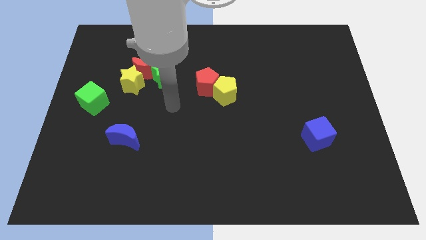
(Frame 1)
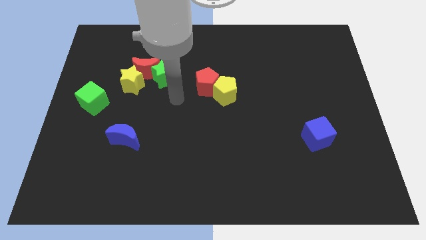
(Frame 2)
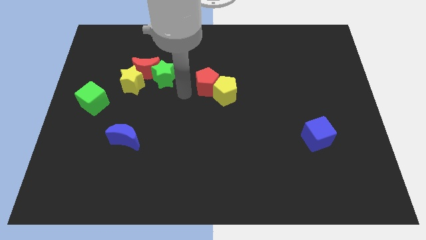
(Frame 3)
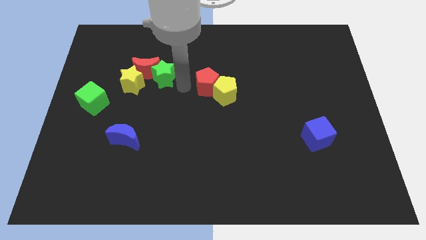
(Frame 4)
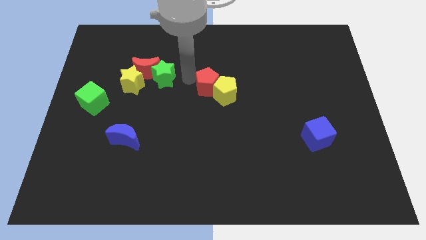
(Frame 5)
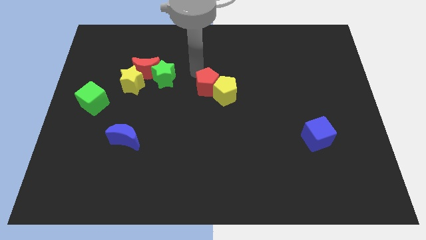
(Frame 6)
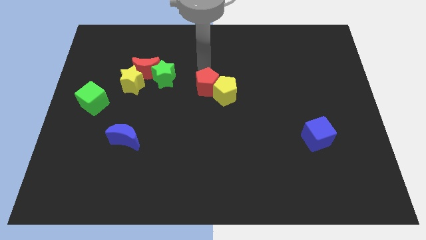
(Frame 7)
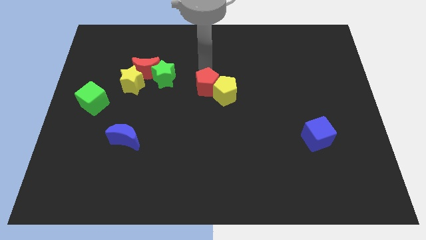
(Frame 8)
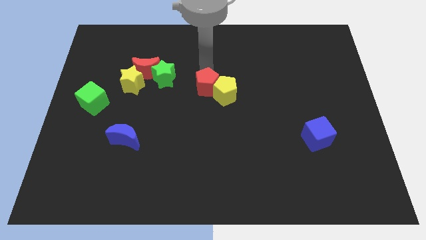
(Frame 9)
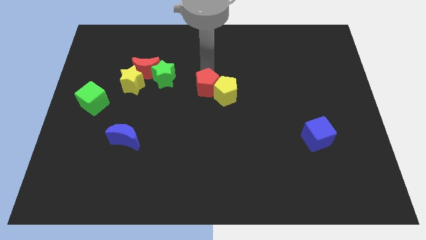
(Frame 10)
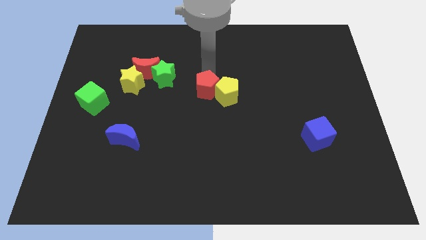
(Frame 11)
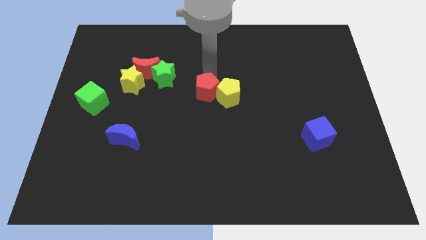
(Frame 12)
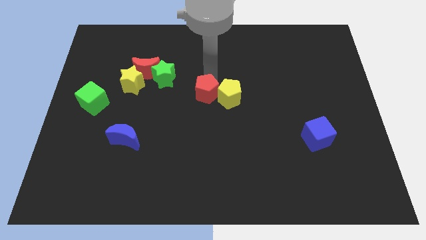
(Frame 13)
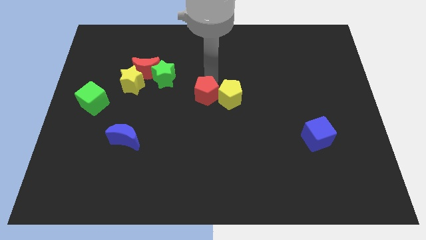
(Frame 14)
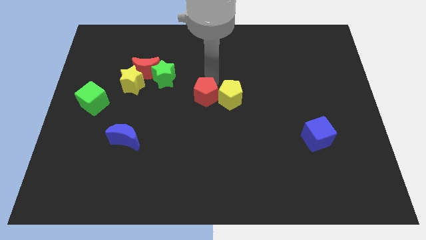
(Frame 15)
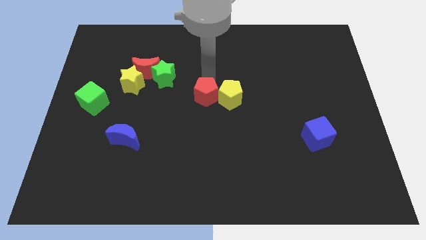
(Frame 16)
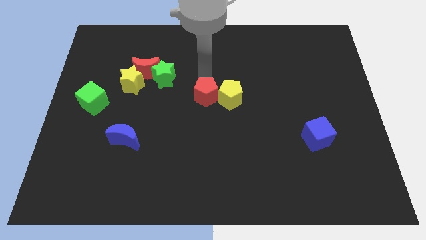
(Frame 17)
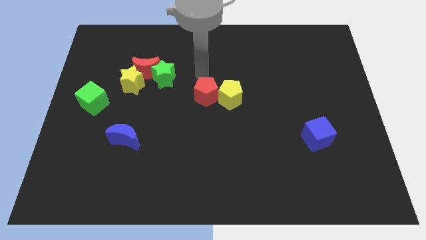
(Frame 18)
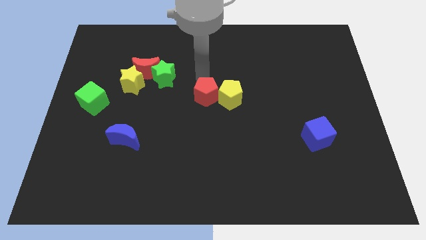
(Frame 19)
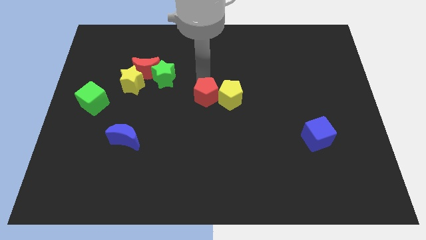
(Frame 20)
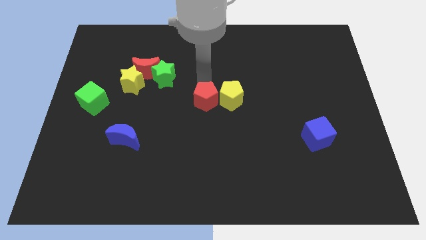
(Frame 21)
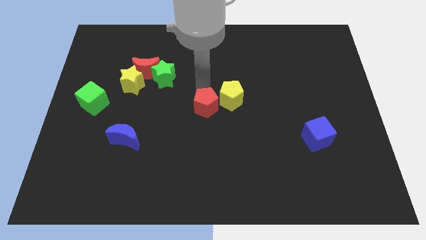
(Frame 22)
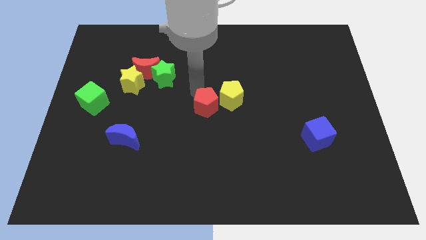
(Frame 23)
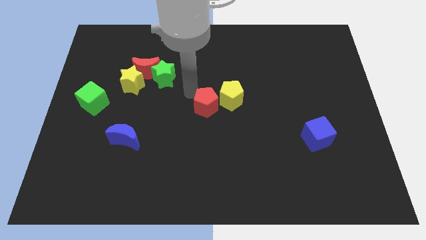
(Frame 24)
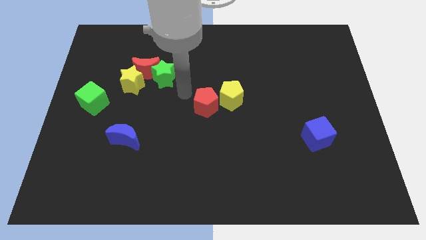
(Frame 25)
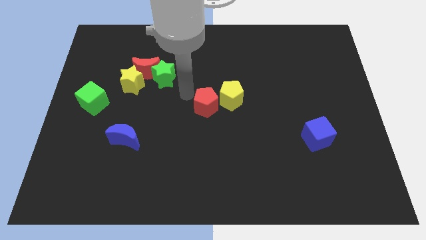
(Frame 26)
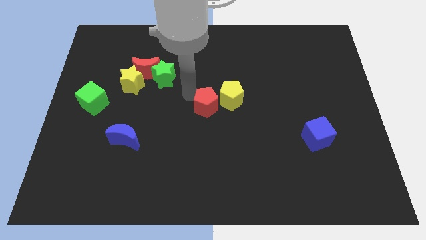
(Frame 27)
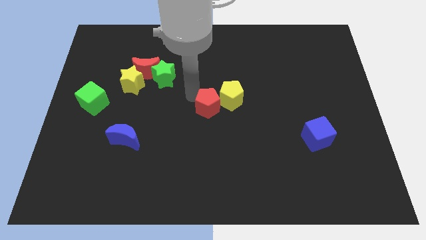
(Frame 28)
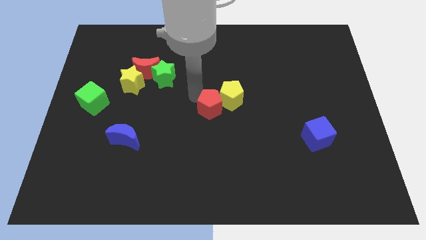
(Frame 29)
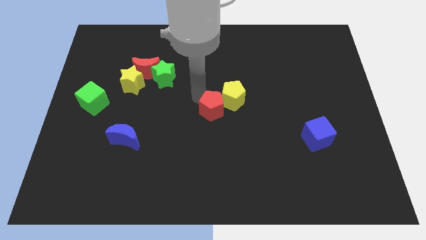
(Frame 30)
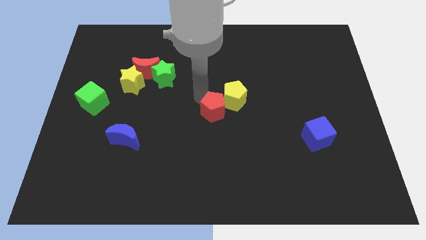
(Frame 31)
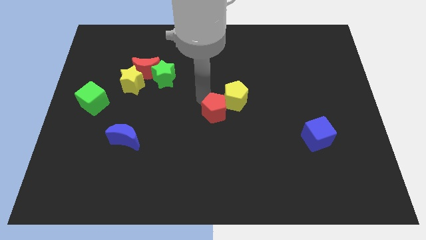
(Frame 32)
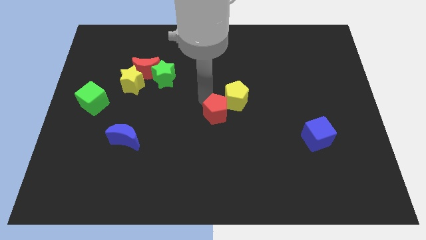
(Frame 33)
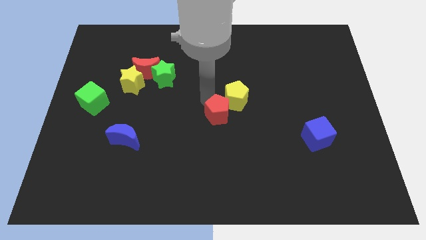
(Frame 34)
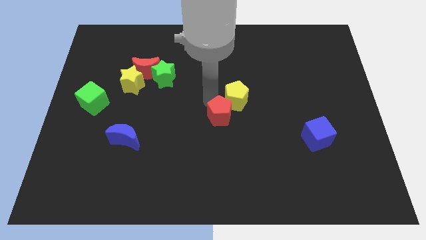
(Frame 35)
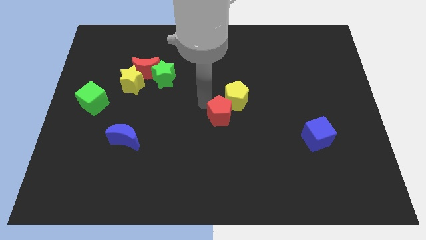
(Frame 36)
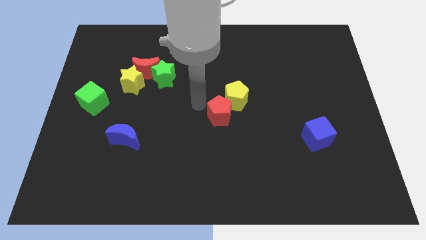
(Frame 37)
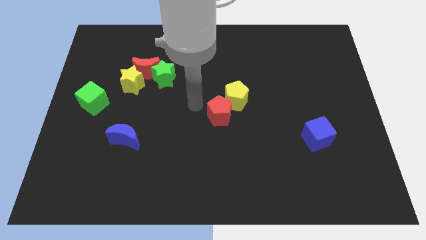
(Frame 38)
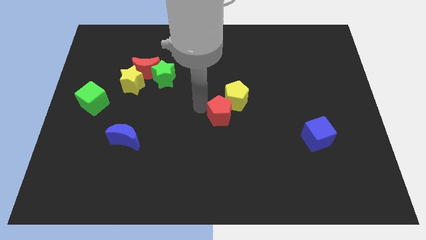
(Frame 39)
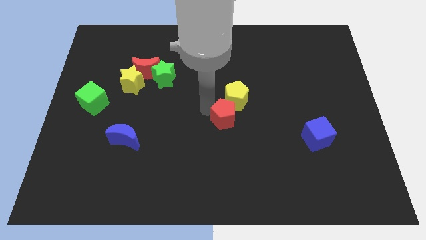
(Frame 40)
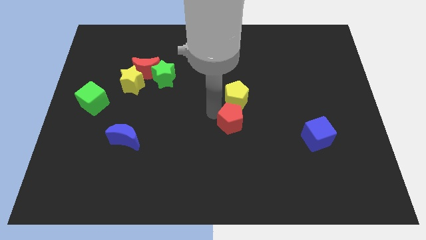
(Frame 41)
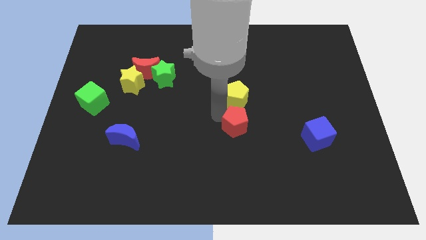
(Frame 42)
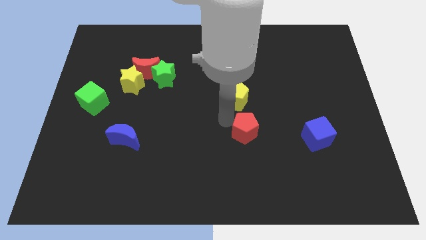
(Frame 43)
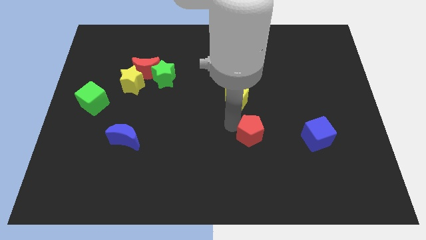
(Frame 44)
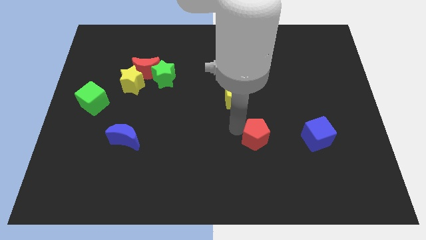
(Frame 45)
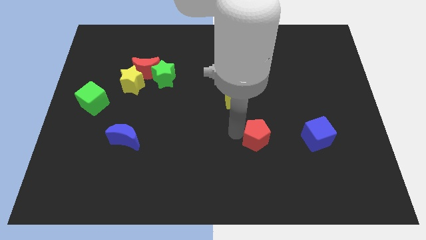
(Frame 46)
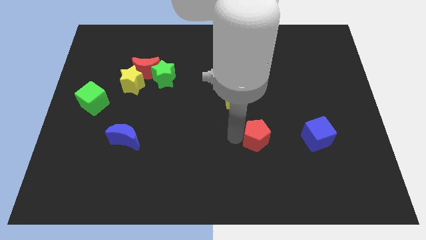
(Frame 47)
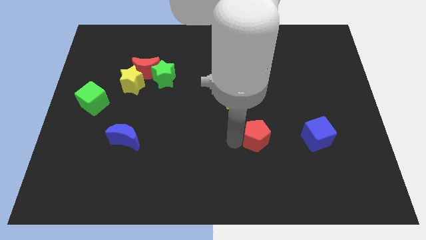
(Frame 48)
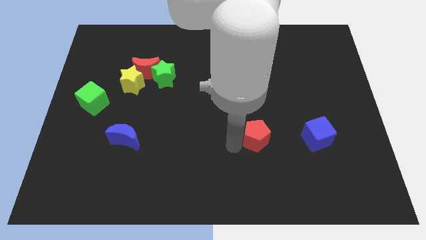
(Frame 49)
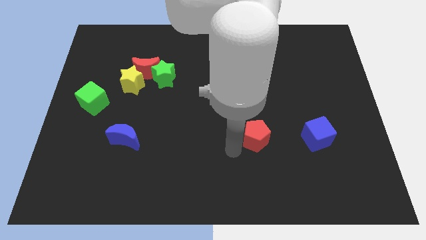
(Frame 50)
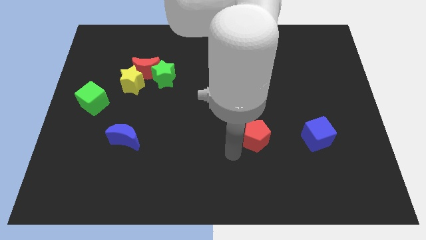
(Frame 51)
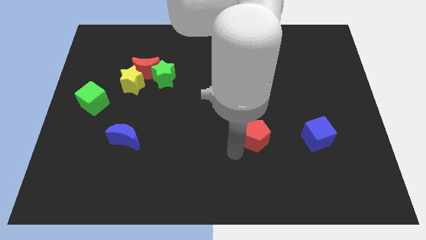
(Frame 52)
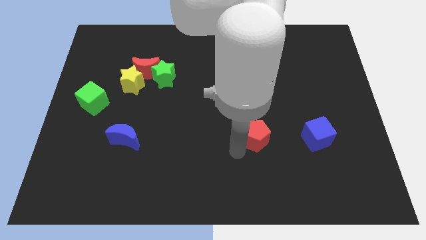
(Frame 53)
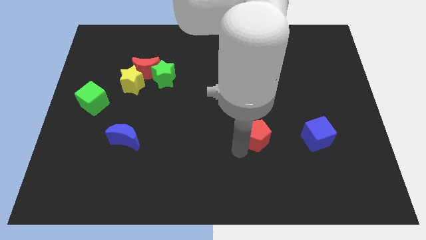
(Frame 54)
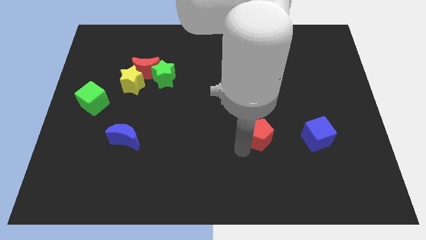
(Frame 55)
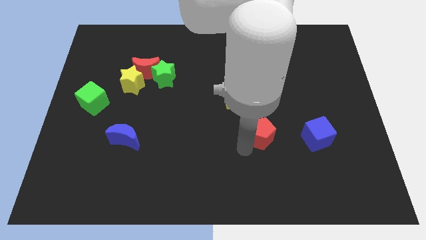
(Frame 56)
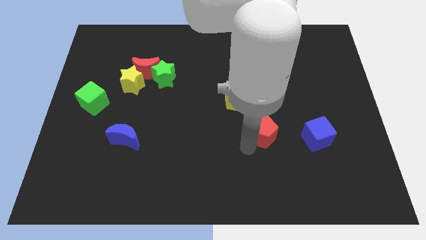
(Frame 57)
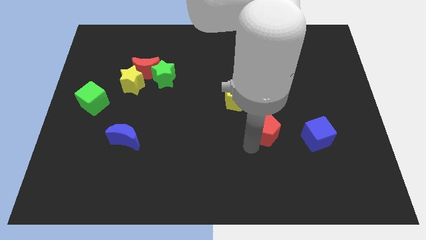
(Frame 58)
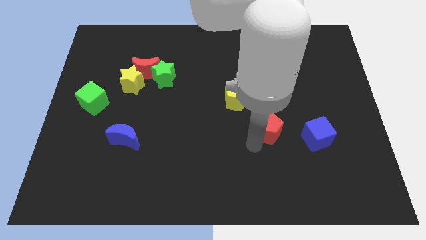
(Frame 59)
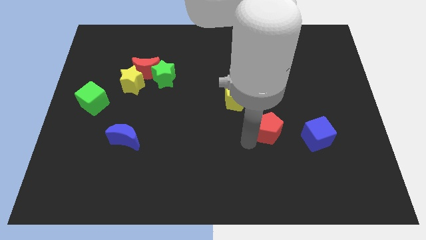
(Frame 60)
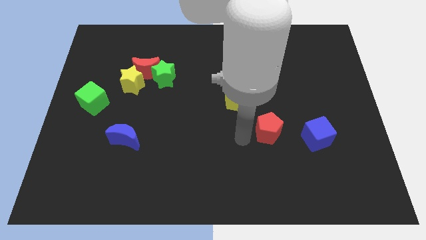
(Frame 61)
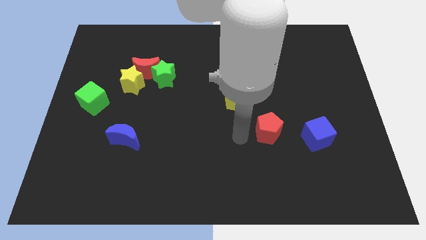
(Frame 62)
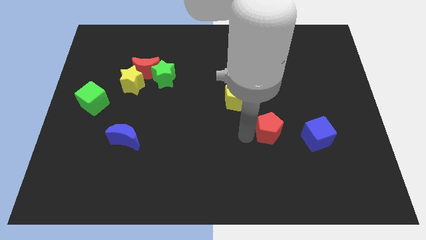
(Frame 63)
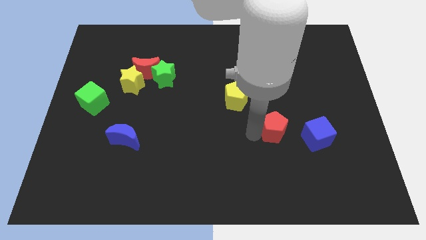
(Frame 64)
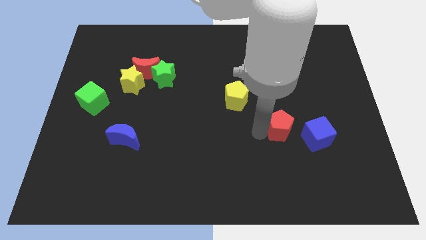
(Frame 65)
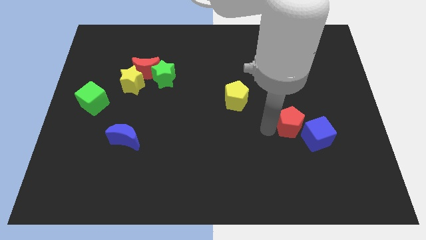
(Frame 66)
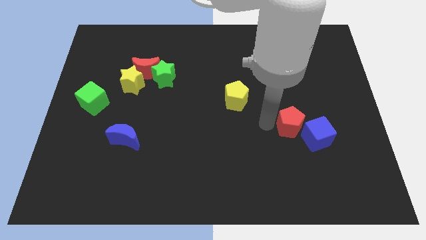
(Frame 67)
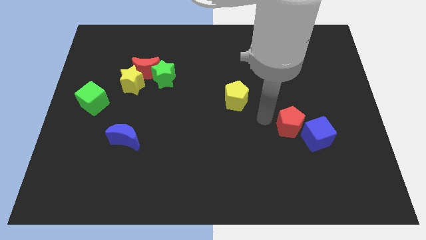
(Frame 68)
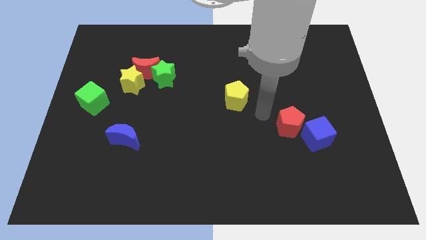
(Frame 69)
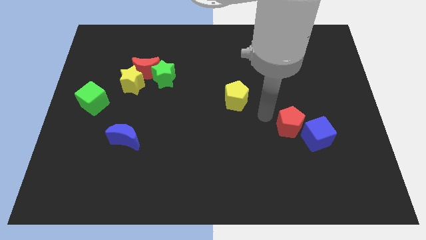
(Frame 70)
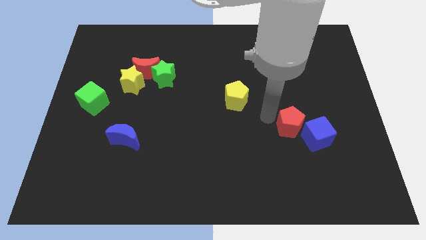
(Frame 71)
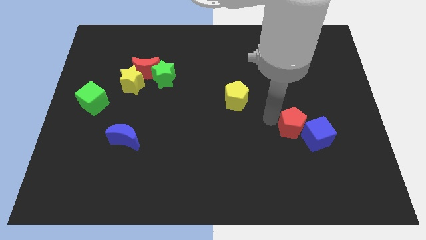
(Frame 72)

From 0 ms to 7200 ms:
push the red pentagon towards the blue cube

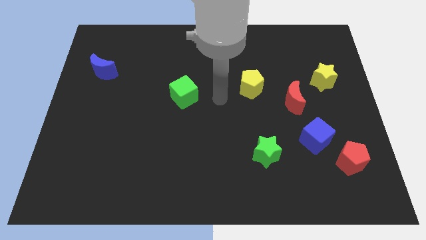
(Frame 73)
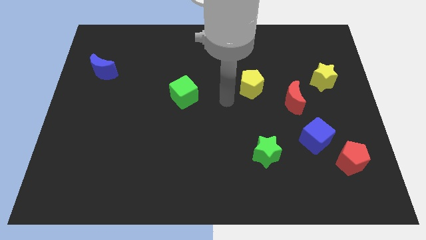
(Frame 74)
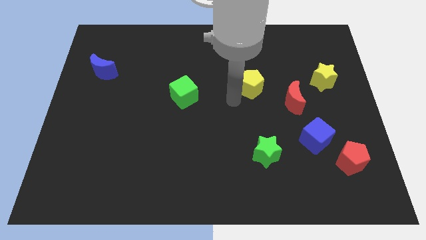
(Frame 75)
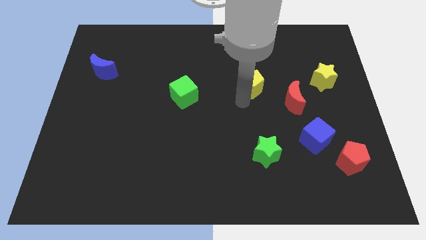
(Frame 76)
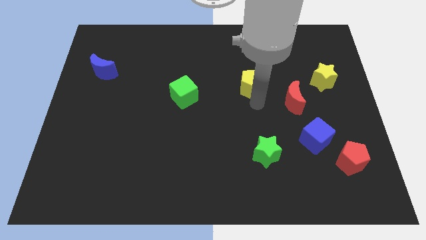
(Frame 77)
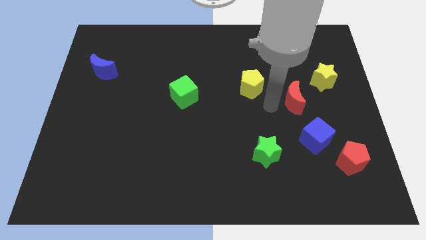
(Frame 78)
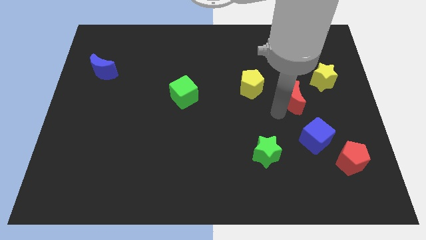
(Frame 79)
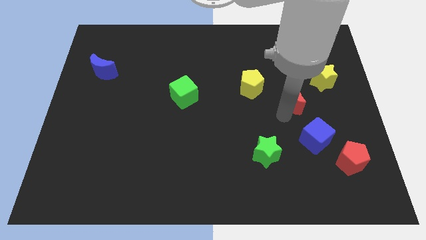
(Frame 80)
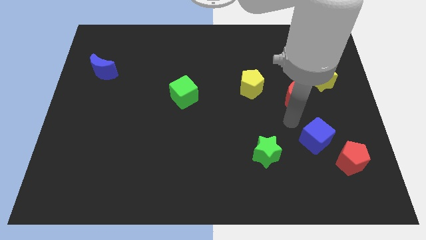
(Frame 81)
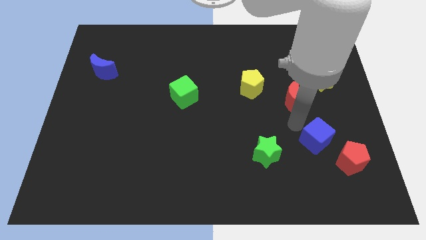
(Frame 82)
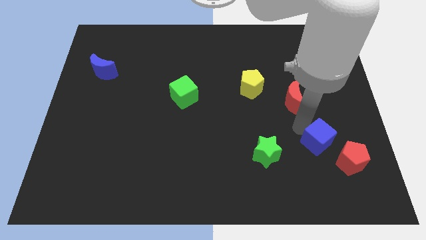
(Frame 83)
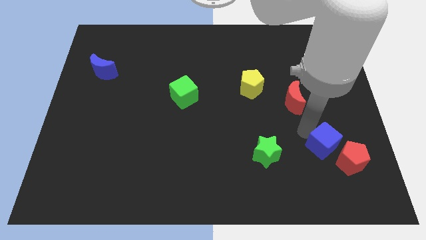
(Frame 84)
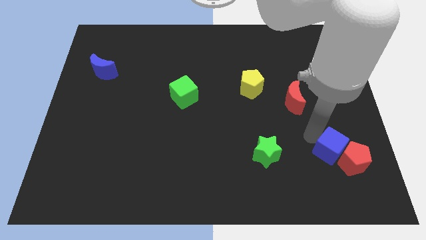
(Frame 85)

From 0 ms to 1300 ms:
push the blue cube close to the red pentagon
